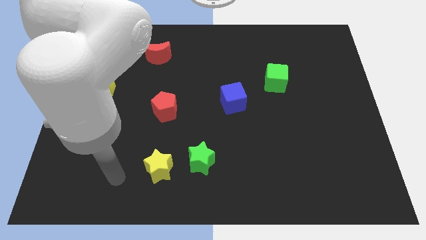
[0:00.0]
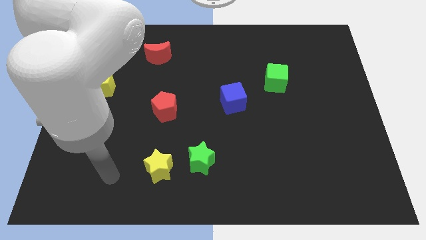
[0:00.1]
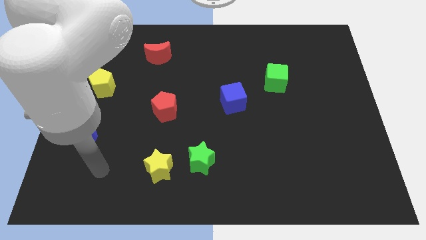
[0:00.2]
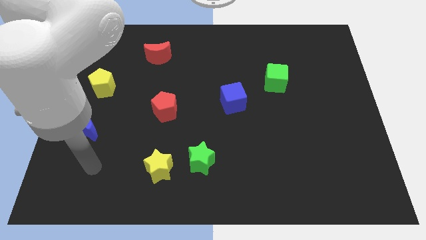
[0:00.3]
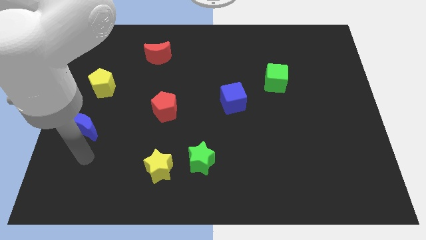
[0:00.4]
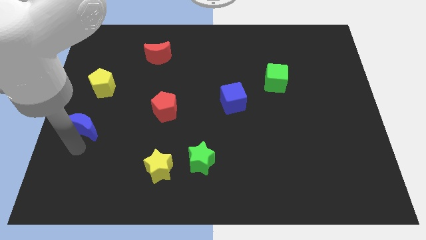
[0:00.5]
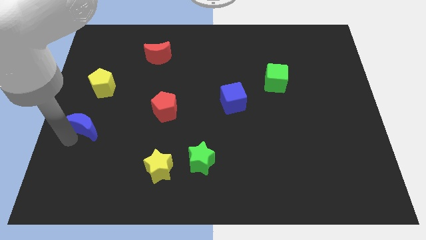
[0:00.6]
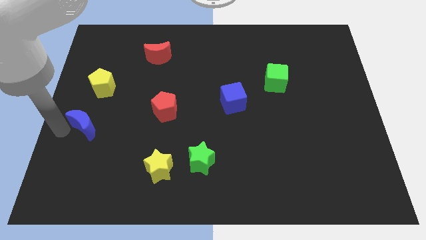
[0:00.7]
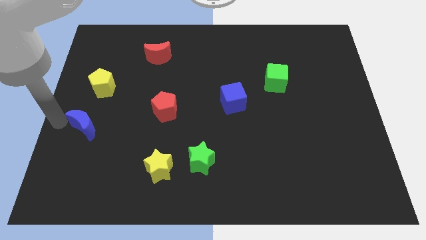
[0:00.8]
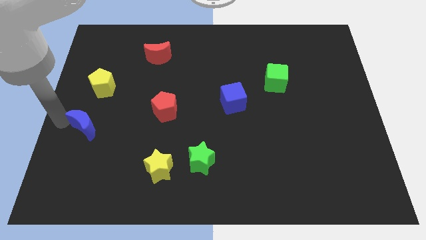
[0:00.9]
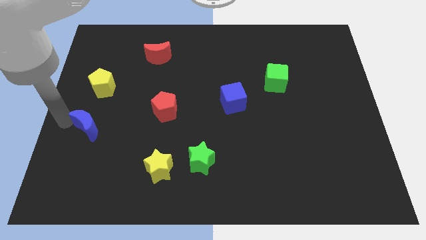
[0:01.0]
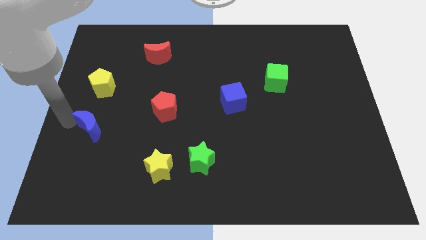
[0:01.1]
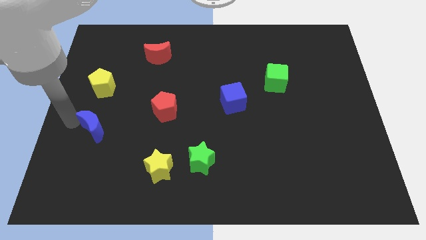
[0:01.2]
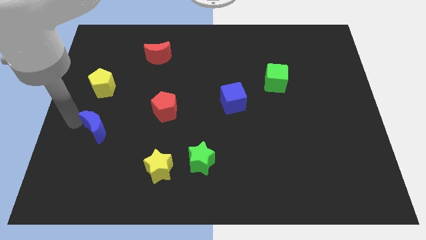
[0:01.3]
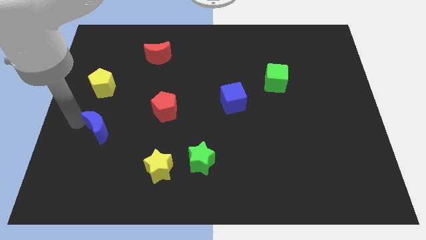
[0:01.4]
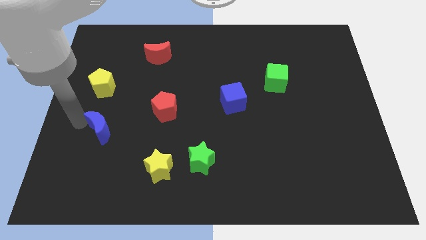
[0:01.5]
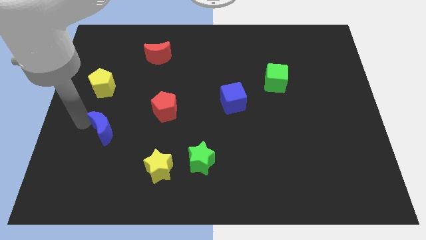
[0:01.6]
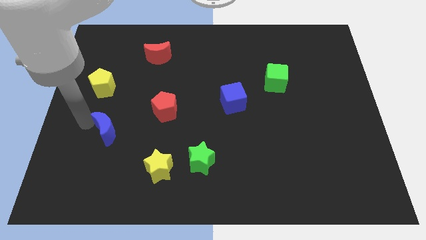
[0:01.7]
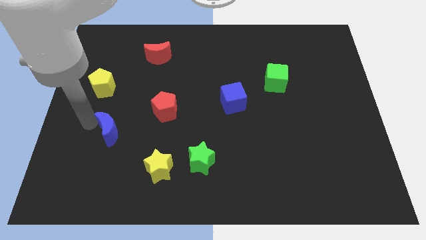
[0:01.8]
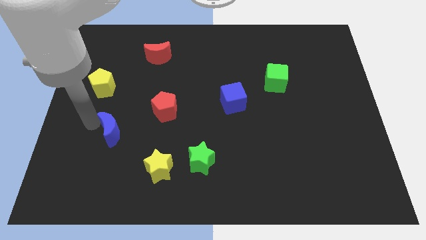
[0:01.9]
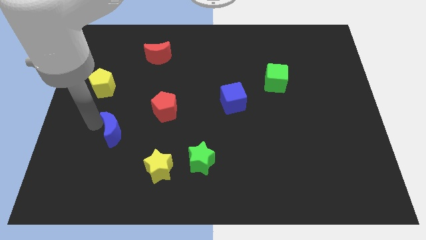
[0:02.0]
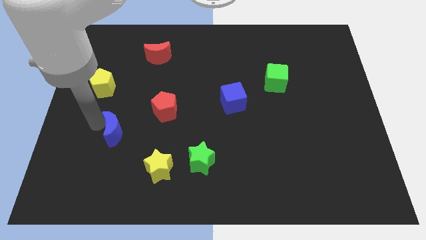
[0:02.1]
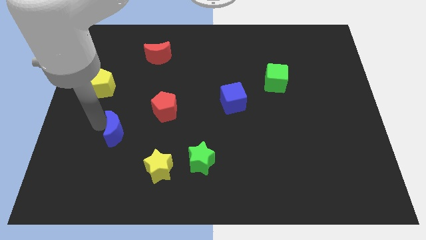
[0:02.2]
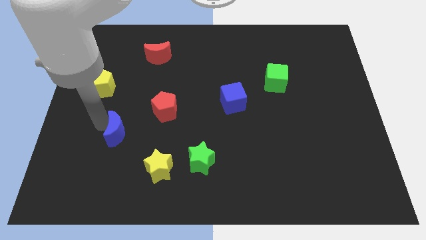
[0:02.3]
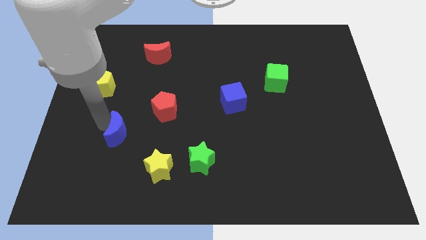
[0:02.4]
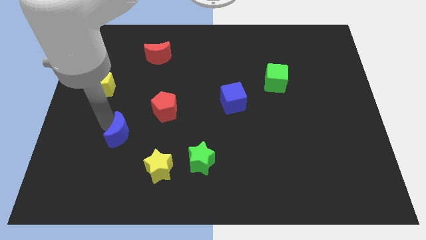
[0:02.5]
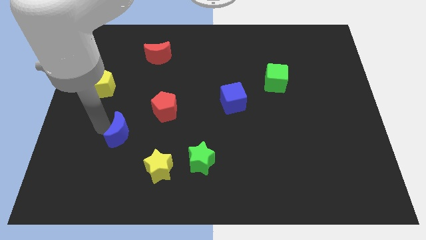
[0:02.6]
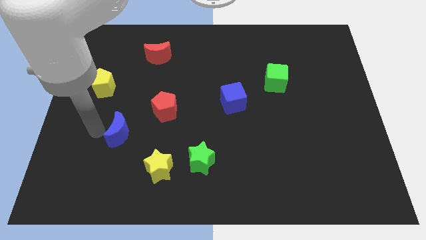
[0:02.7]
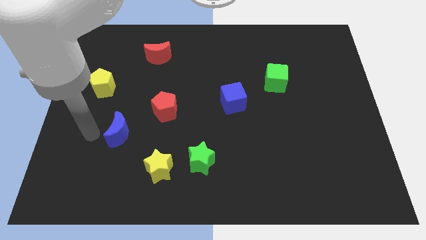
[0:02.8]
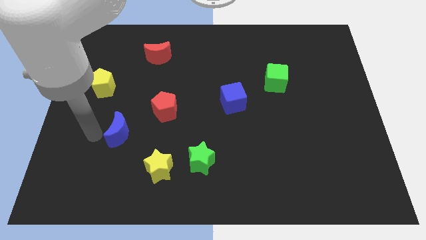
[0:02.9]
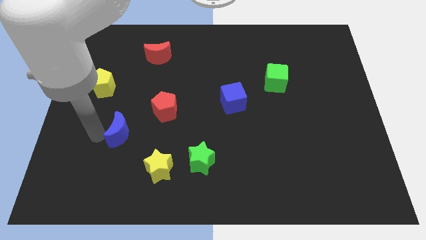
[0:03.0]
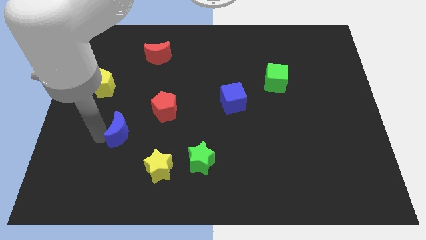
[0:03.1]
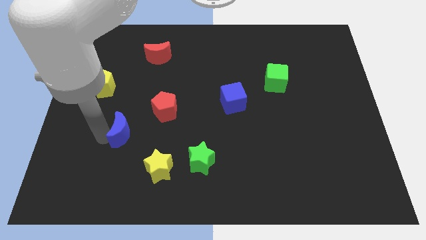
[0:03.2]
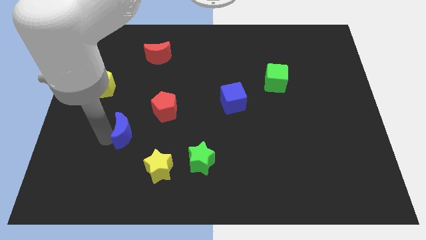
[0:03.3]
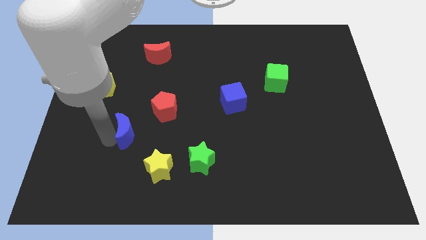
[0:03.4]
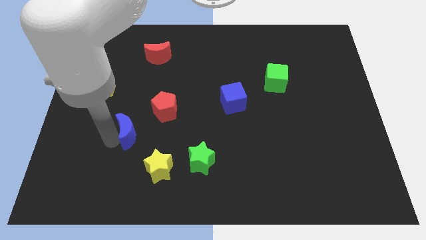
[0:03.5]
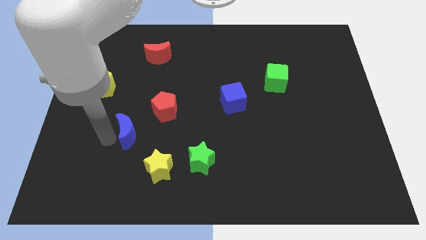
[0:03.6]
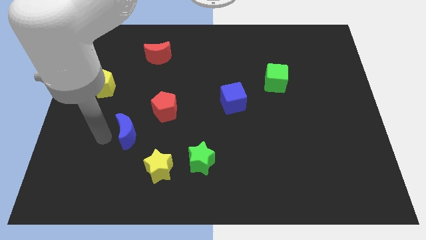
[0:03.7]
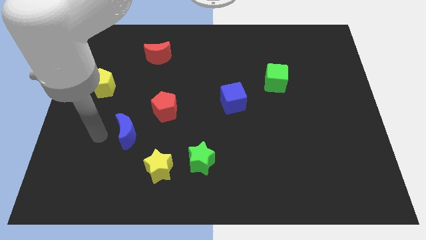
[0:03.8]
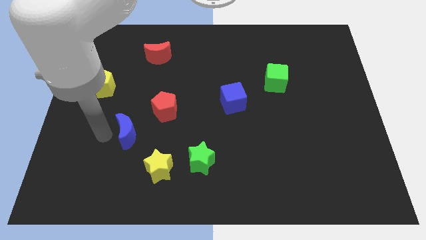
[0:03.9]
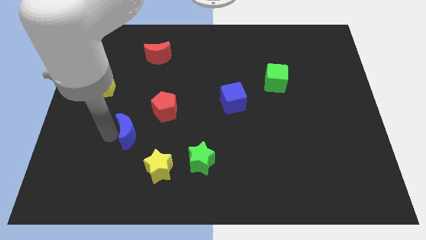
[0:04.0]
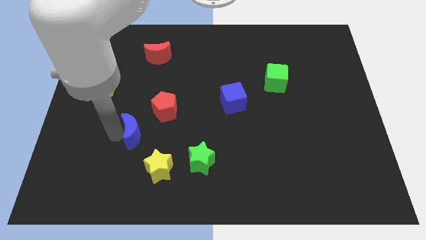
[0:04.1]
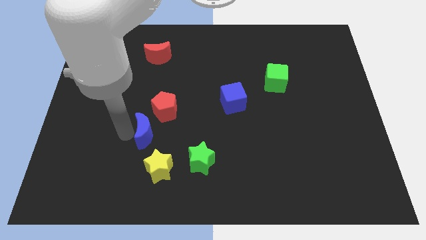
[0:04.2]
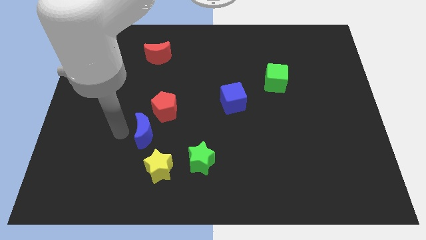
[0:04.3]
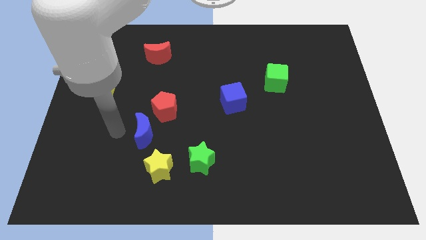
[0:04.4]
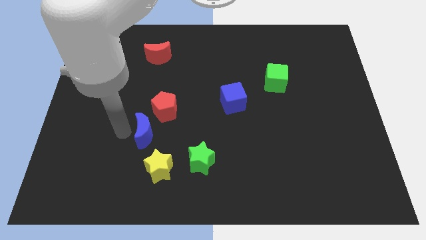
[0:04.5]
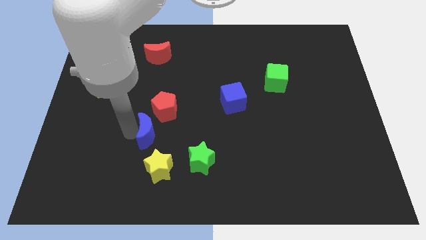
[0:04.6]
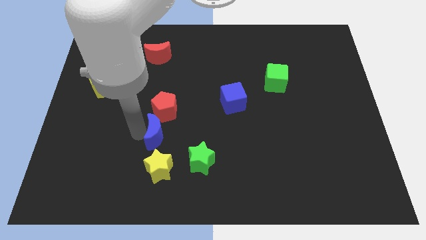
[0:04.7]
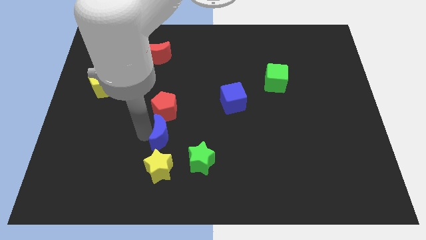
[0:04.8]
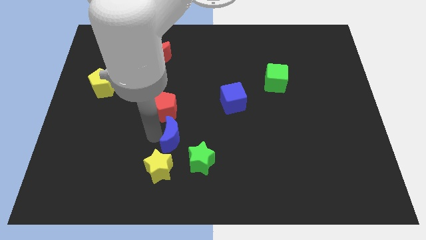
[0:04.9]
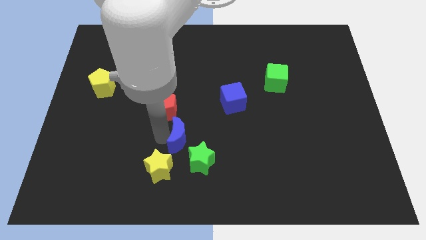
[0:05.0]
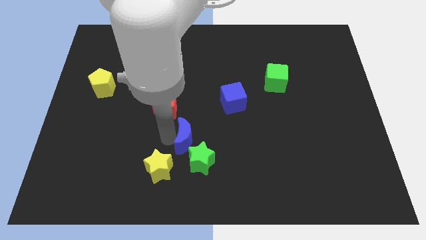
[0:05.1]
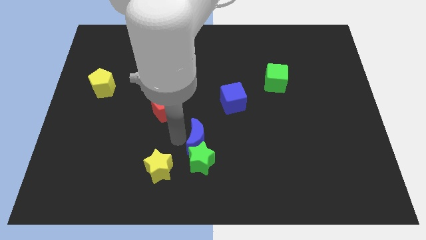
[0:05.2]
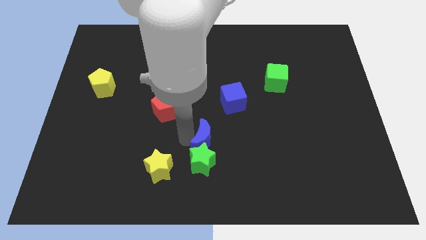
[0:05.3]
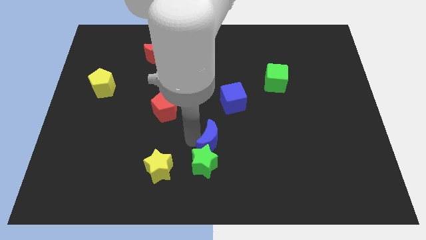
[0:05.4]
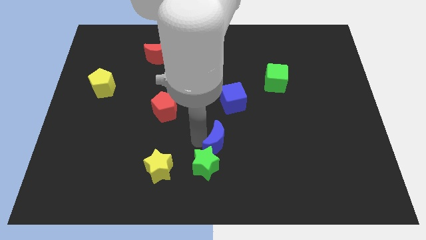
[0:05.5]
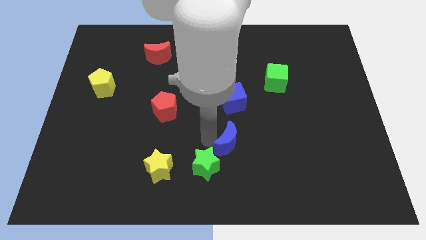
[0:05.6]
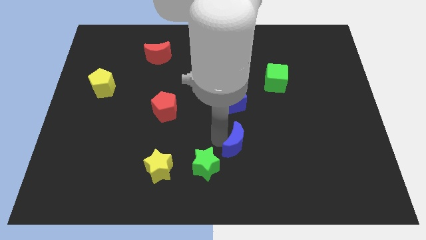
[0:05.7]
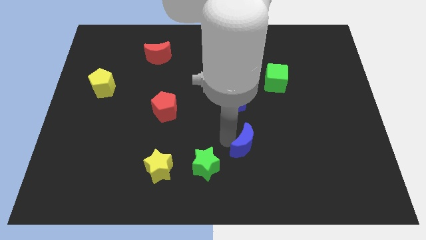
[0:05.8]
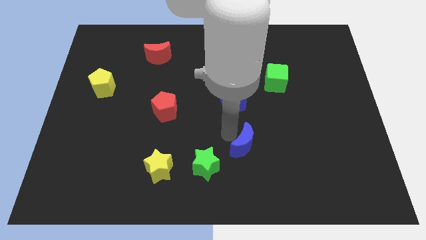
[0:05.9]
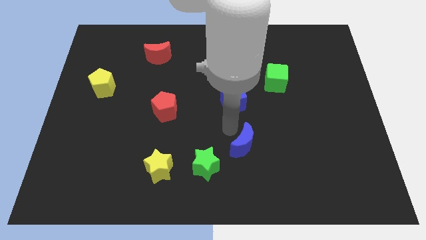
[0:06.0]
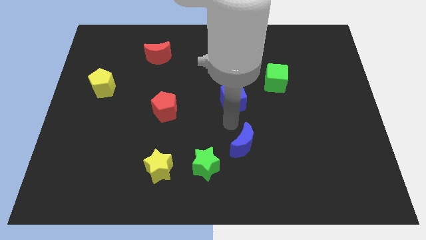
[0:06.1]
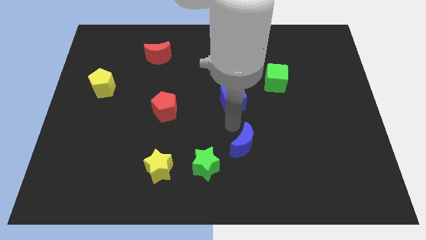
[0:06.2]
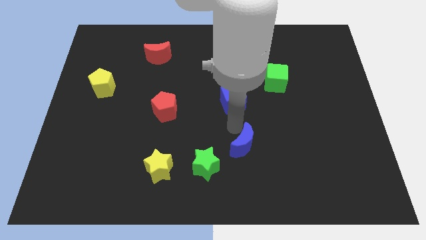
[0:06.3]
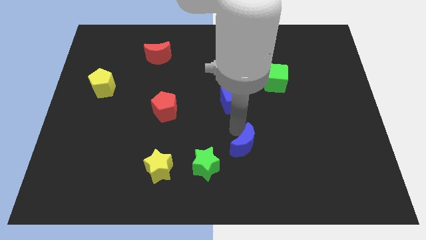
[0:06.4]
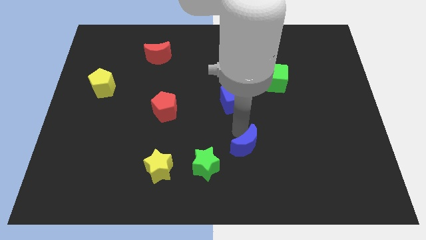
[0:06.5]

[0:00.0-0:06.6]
put the blue moon to the right side of the green star

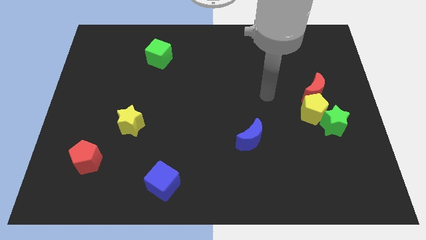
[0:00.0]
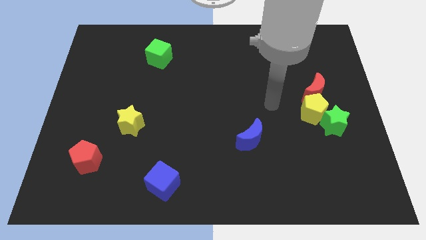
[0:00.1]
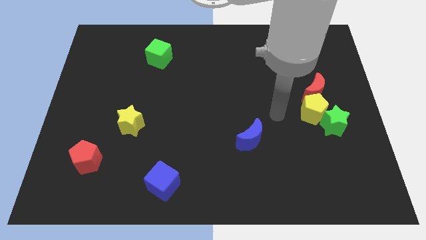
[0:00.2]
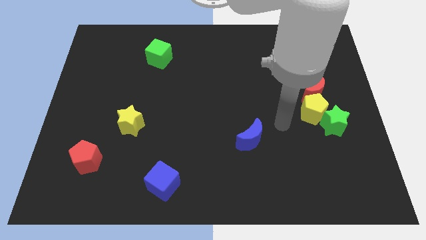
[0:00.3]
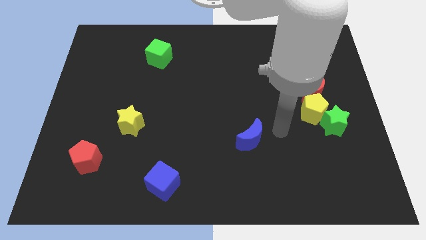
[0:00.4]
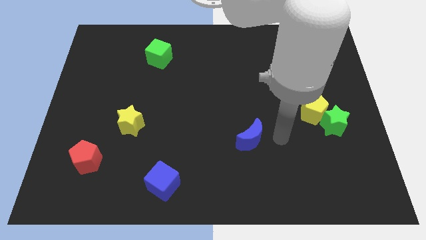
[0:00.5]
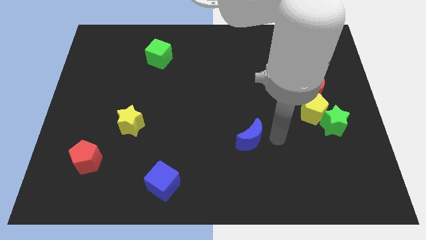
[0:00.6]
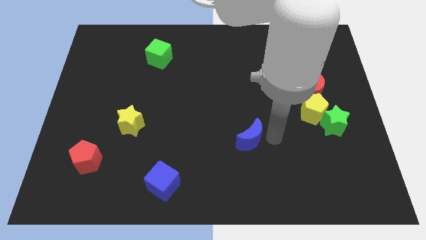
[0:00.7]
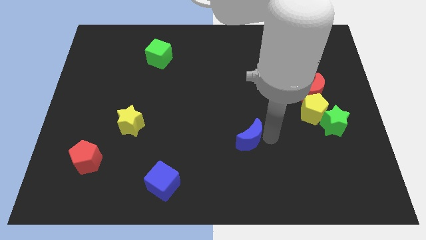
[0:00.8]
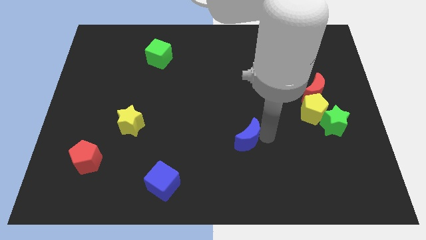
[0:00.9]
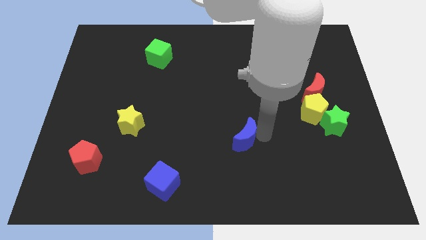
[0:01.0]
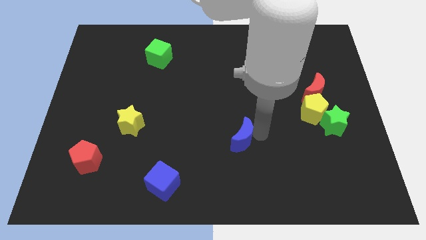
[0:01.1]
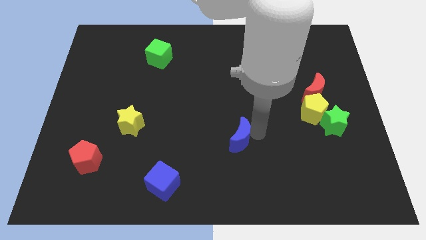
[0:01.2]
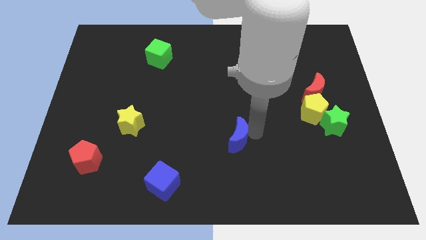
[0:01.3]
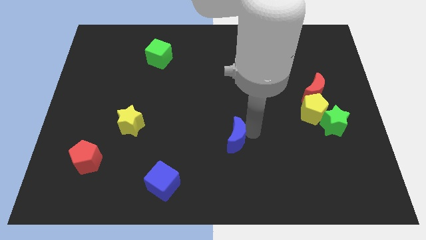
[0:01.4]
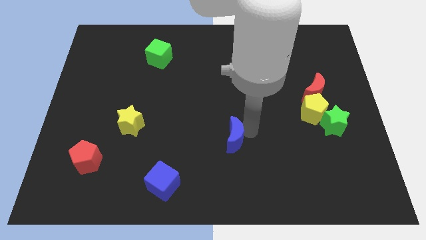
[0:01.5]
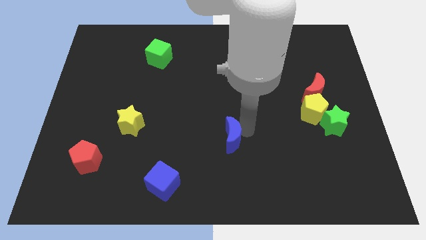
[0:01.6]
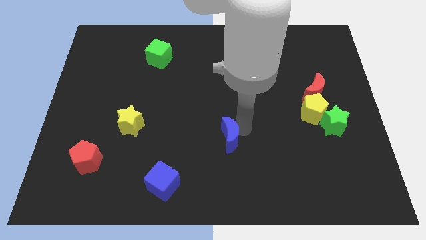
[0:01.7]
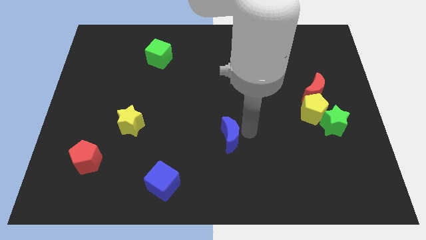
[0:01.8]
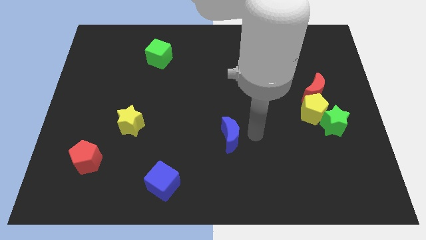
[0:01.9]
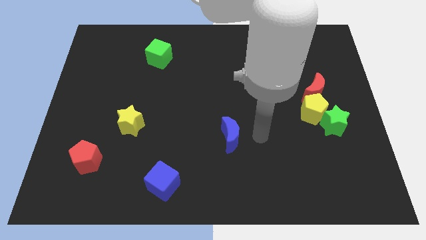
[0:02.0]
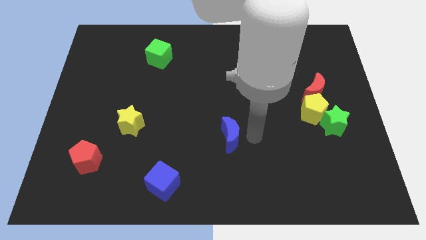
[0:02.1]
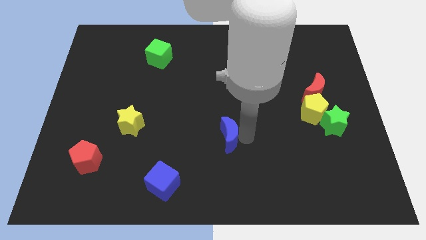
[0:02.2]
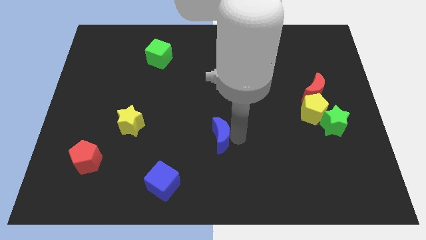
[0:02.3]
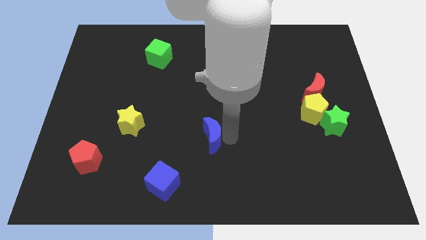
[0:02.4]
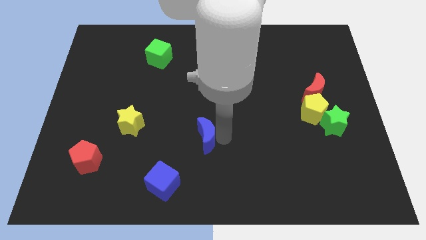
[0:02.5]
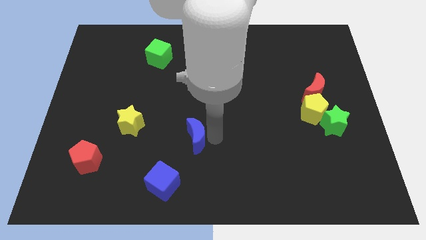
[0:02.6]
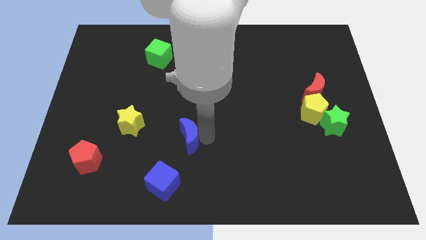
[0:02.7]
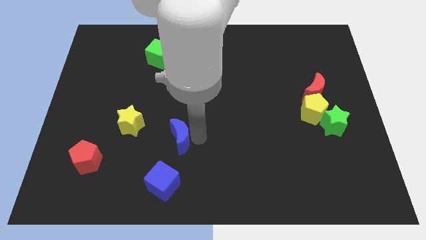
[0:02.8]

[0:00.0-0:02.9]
move the blue moon above the blue cube
